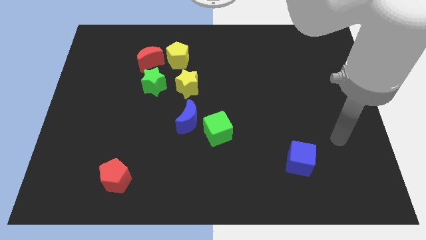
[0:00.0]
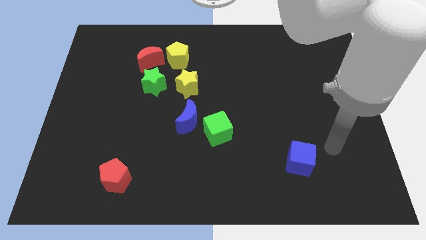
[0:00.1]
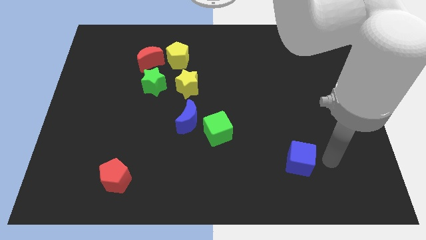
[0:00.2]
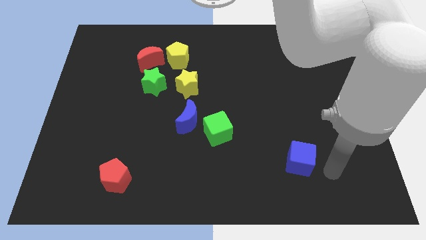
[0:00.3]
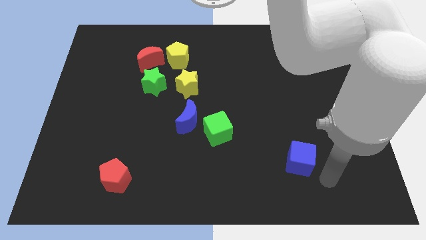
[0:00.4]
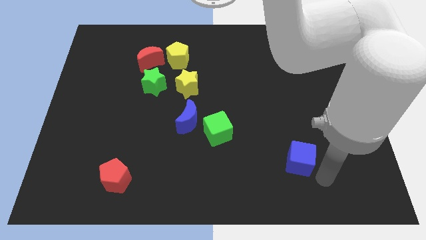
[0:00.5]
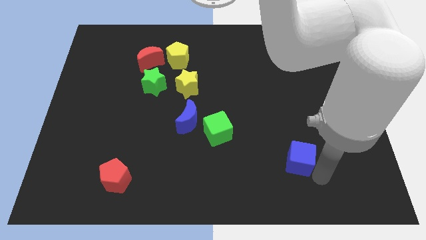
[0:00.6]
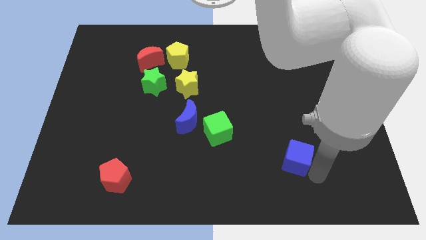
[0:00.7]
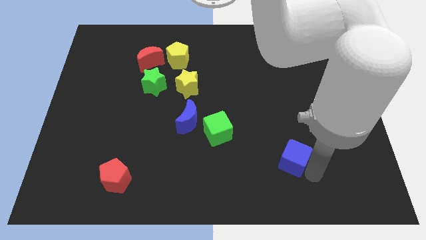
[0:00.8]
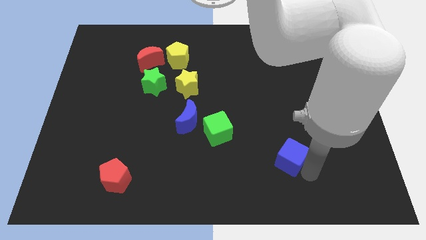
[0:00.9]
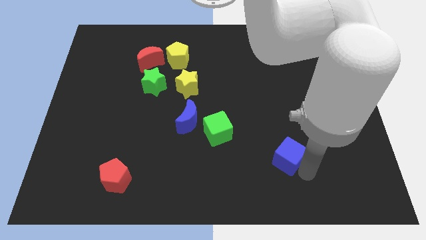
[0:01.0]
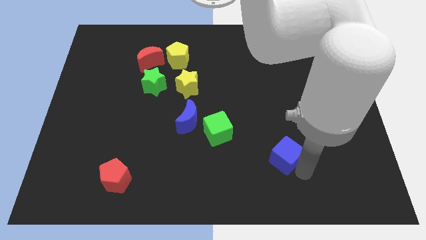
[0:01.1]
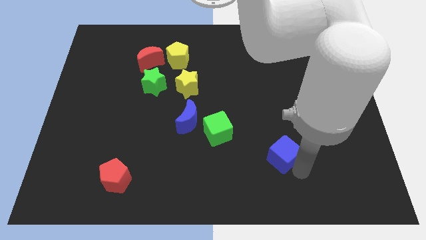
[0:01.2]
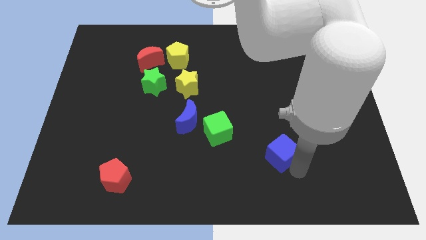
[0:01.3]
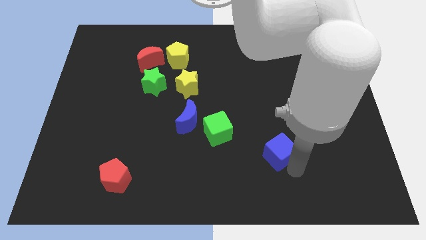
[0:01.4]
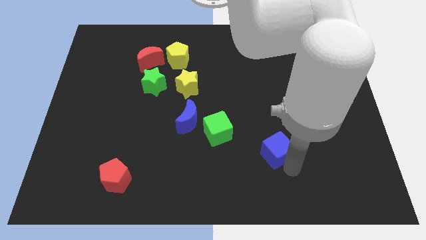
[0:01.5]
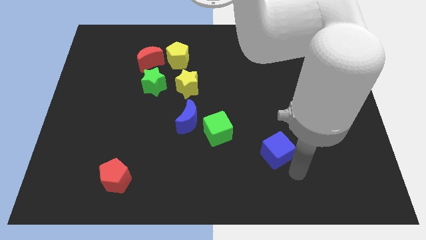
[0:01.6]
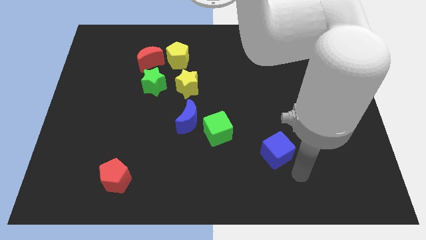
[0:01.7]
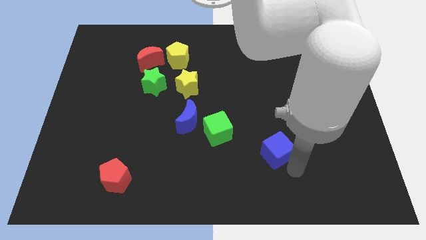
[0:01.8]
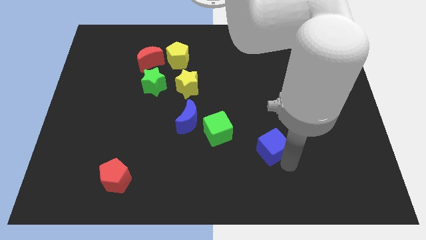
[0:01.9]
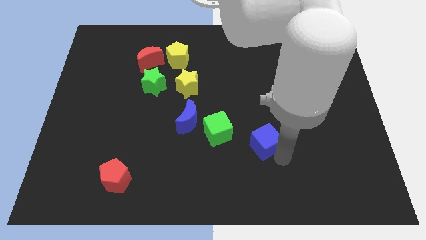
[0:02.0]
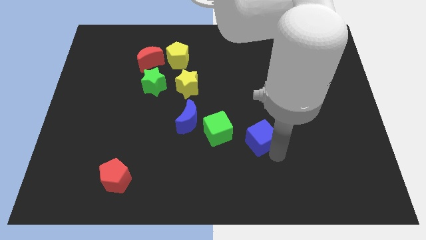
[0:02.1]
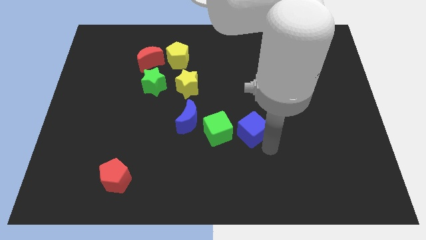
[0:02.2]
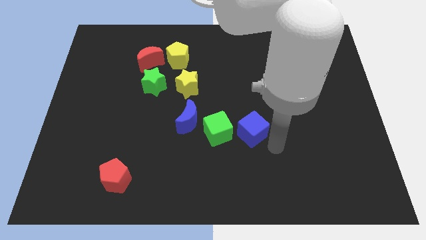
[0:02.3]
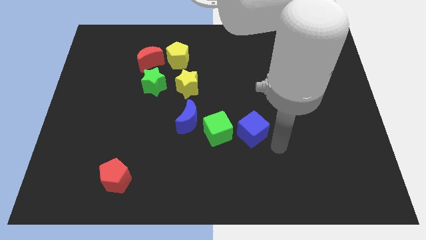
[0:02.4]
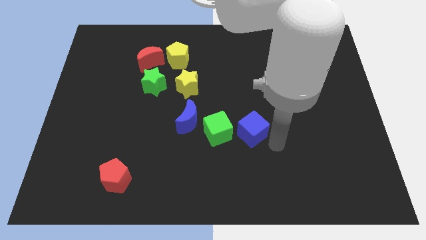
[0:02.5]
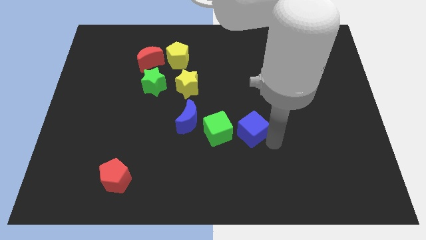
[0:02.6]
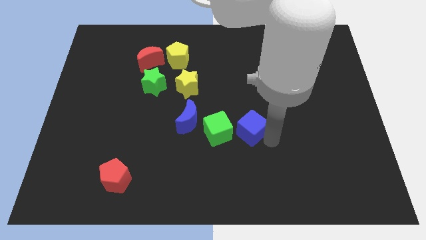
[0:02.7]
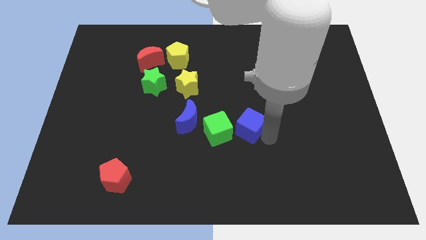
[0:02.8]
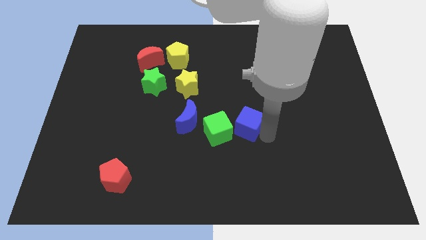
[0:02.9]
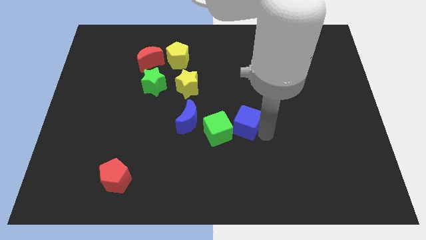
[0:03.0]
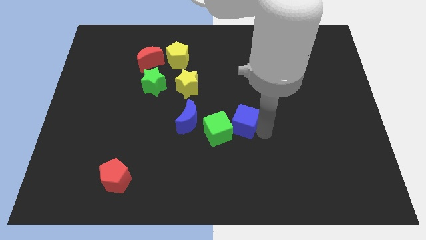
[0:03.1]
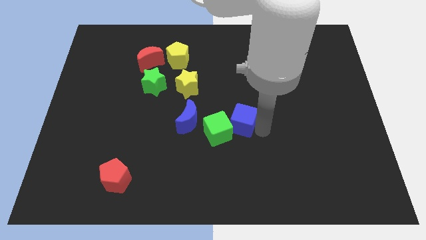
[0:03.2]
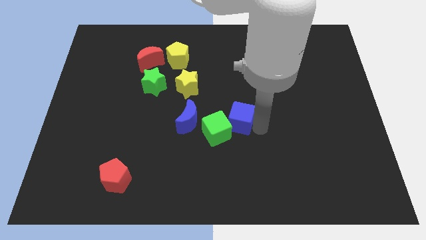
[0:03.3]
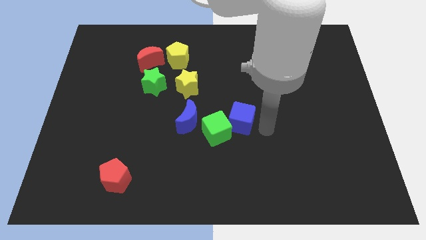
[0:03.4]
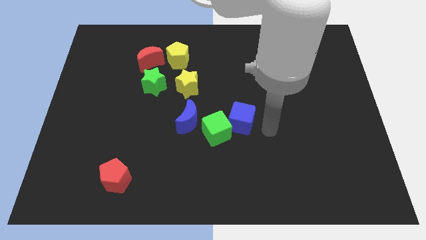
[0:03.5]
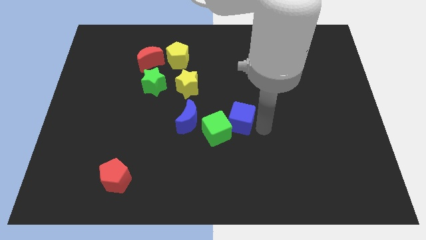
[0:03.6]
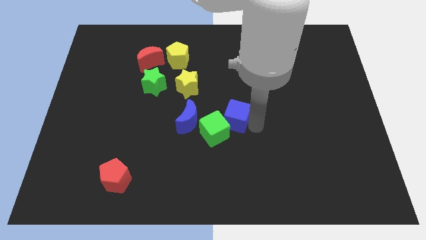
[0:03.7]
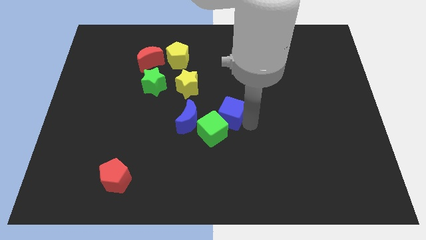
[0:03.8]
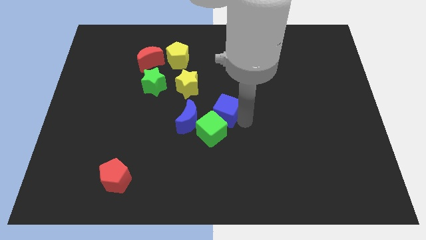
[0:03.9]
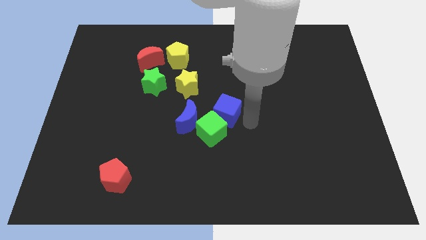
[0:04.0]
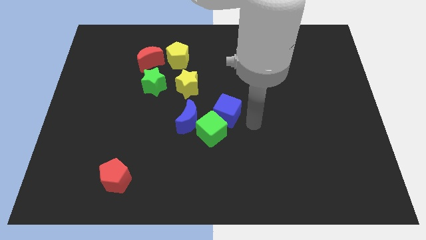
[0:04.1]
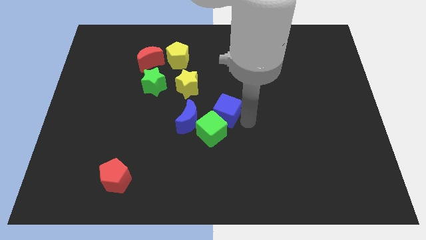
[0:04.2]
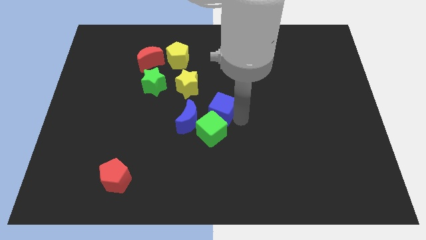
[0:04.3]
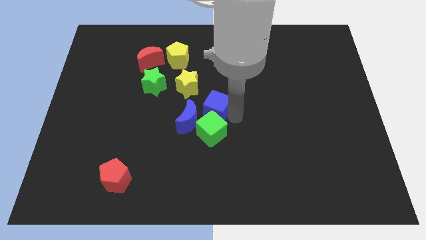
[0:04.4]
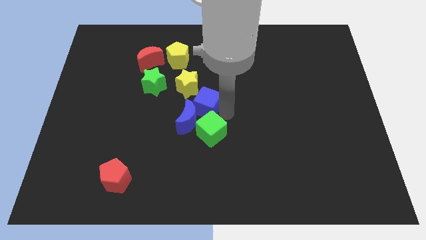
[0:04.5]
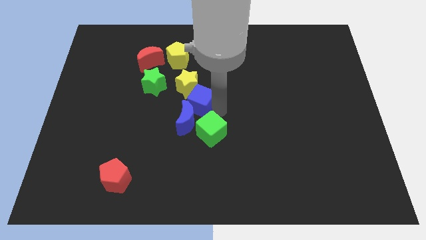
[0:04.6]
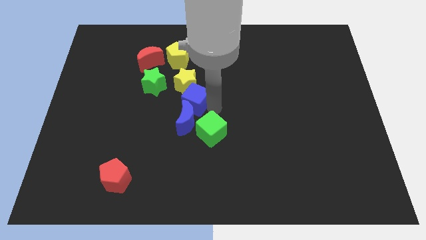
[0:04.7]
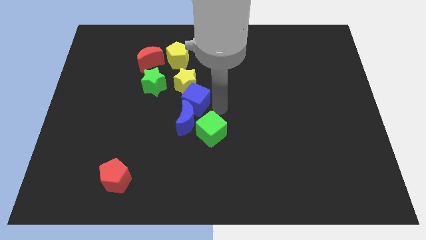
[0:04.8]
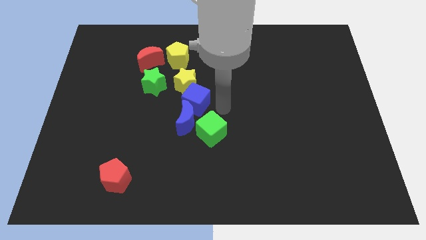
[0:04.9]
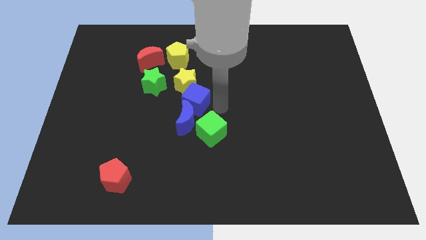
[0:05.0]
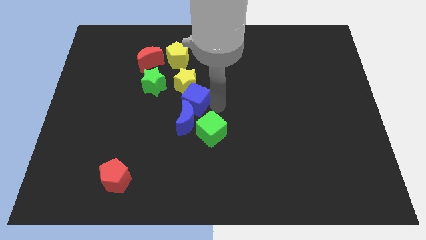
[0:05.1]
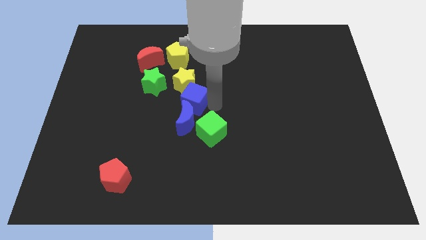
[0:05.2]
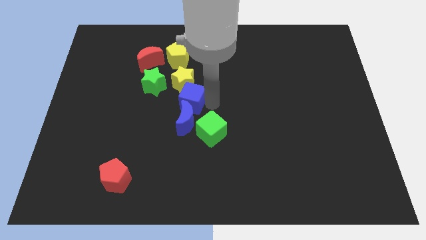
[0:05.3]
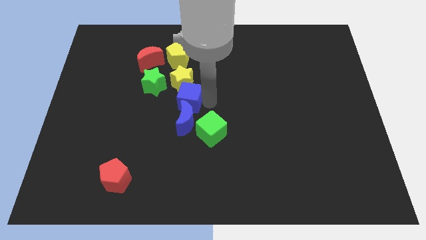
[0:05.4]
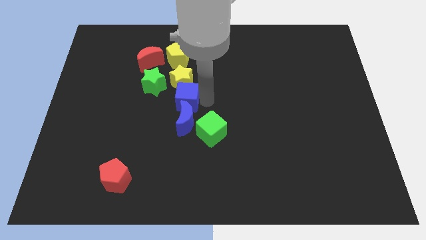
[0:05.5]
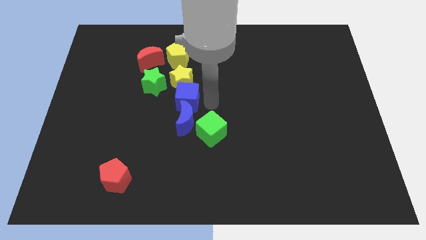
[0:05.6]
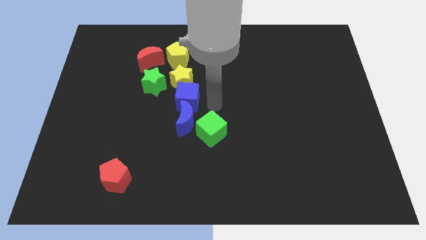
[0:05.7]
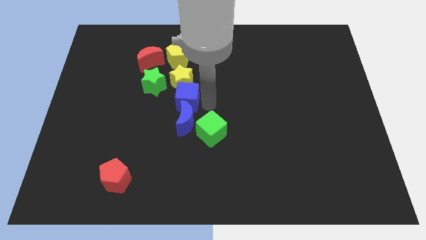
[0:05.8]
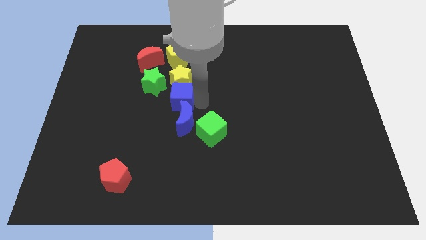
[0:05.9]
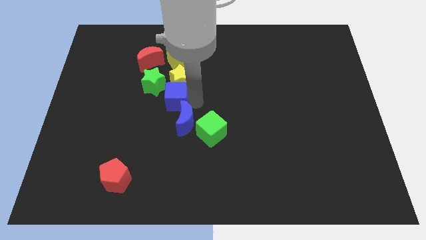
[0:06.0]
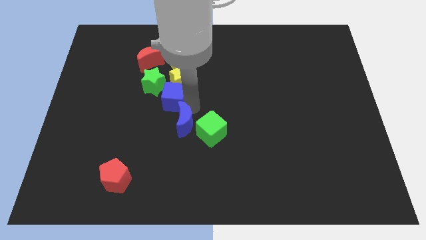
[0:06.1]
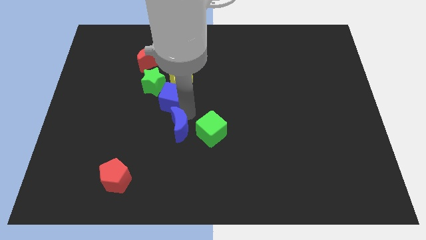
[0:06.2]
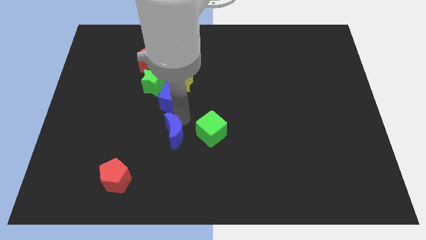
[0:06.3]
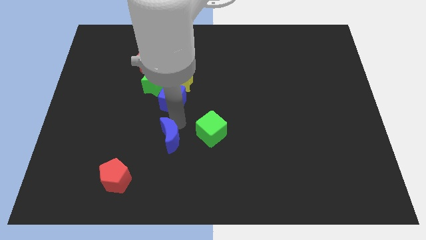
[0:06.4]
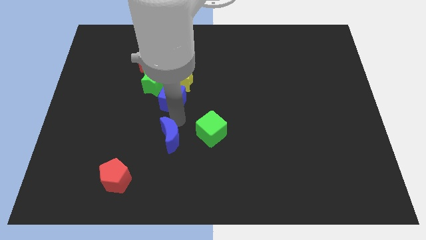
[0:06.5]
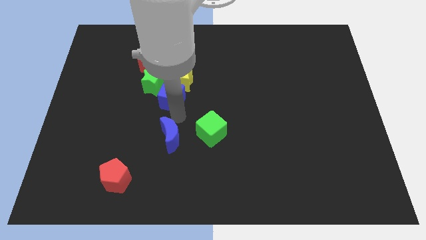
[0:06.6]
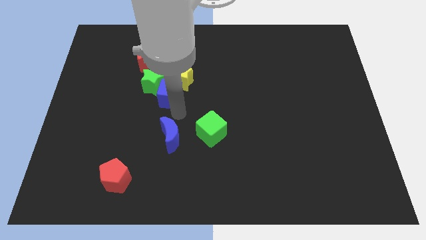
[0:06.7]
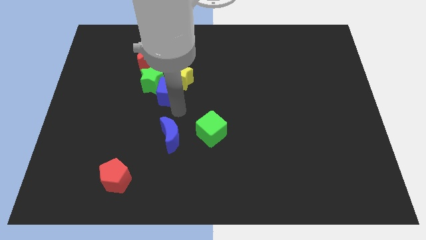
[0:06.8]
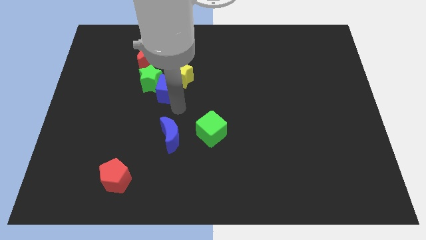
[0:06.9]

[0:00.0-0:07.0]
put the blue cube diagonally down and to the right of the red moon
